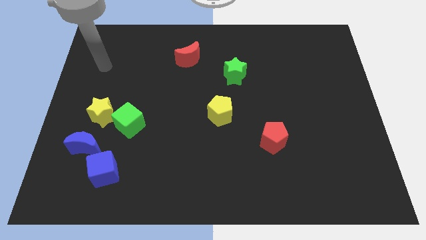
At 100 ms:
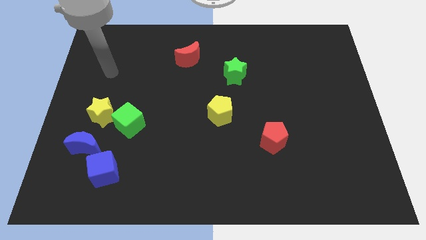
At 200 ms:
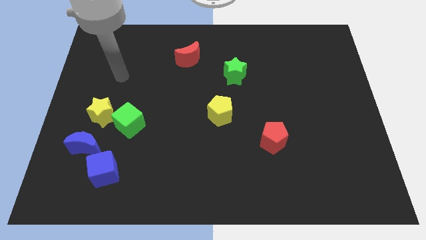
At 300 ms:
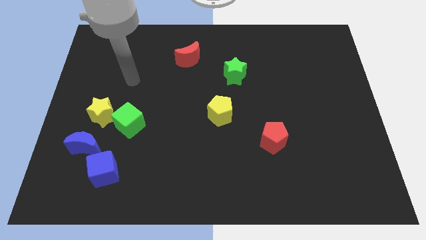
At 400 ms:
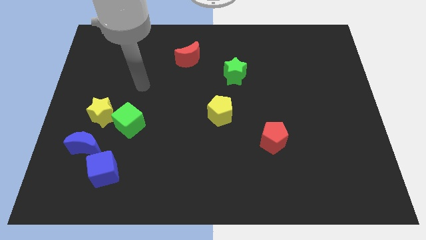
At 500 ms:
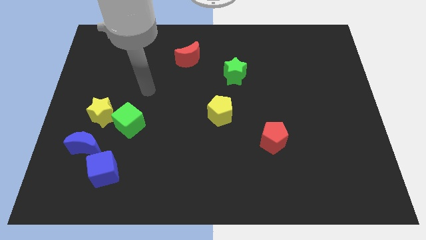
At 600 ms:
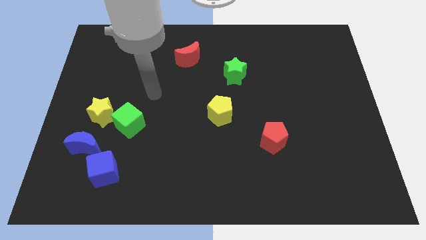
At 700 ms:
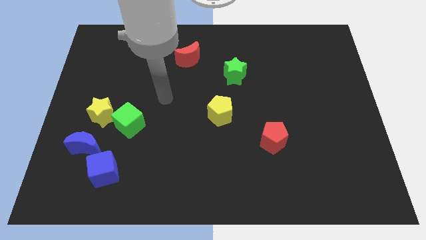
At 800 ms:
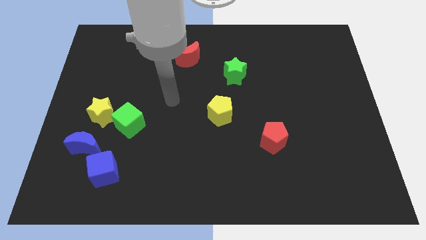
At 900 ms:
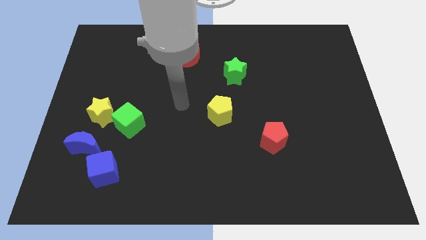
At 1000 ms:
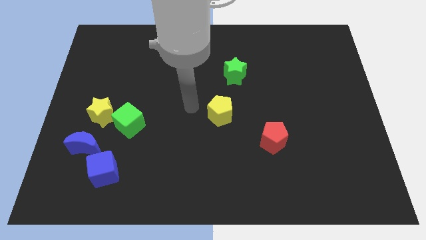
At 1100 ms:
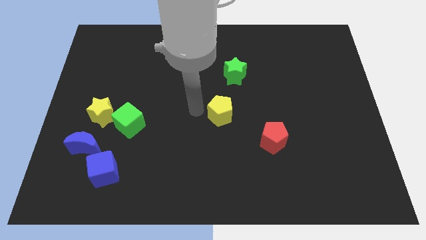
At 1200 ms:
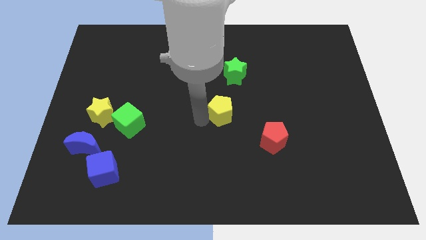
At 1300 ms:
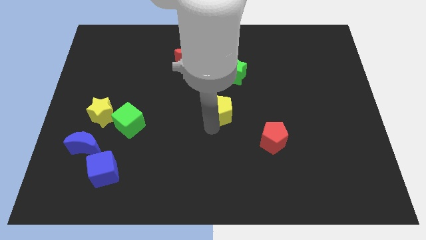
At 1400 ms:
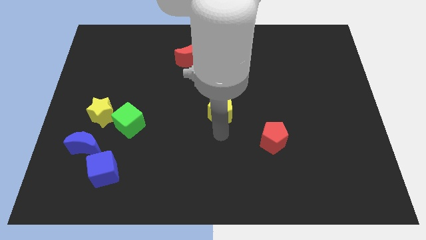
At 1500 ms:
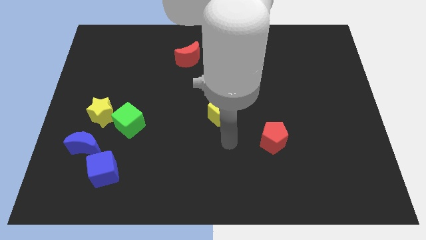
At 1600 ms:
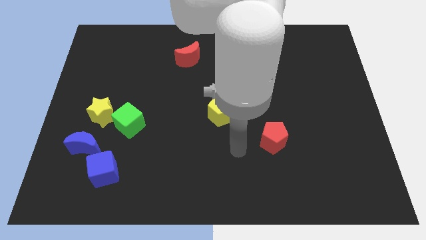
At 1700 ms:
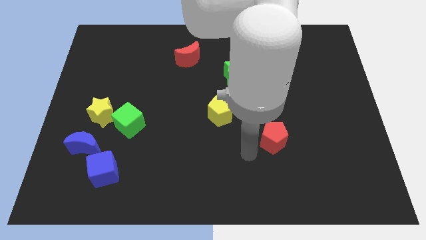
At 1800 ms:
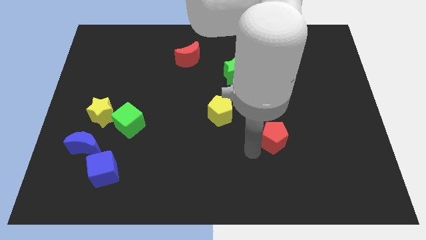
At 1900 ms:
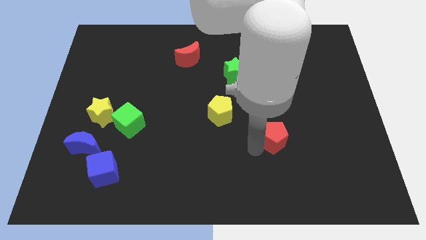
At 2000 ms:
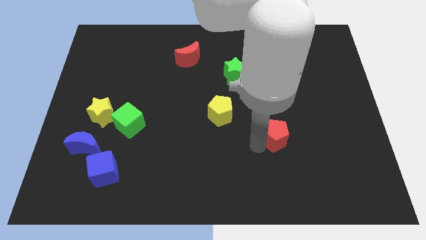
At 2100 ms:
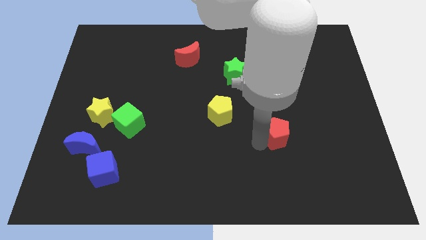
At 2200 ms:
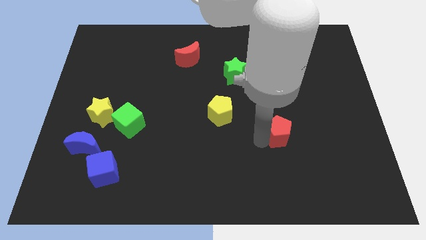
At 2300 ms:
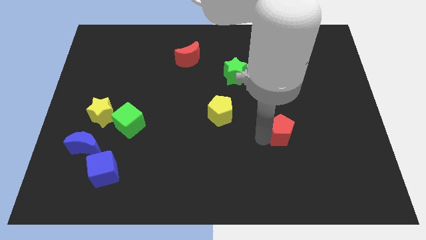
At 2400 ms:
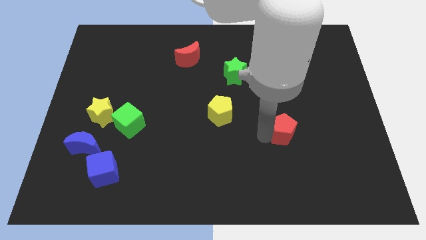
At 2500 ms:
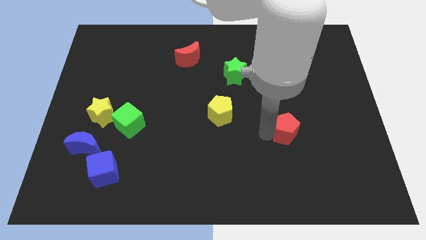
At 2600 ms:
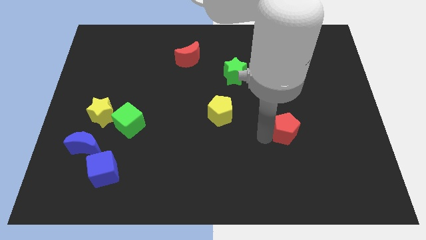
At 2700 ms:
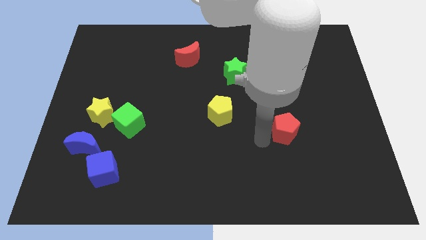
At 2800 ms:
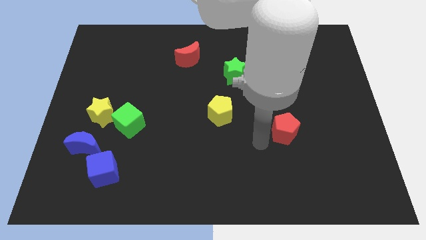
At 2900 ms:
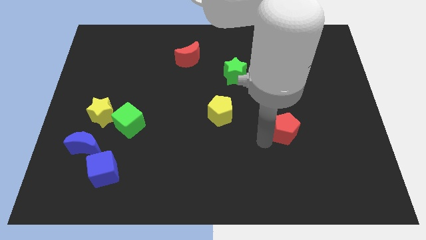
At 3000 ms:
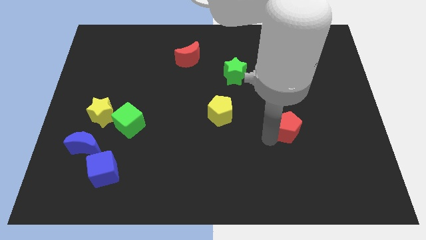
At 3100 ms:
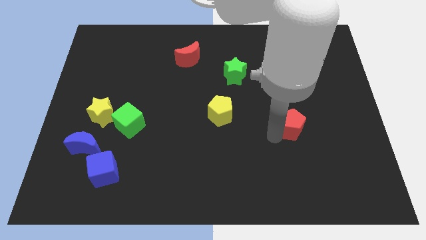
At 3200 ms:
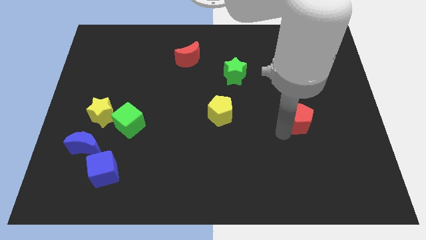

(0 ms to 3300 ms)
slightly slide the red pentagon up and to the right

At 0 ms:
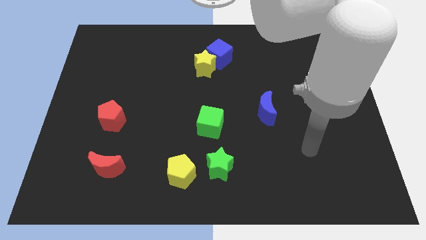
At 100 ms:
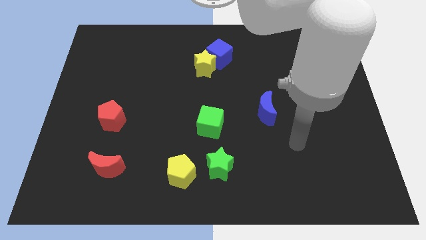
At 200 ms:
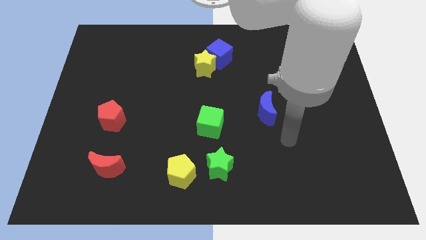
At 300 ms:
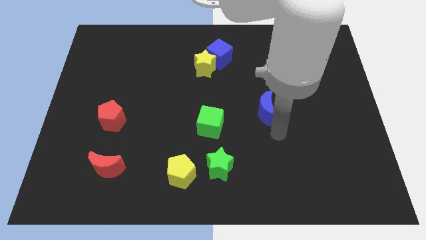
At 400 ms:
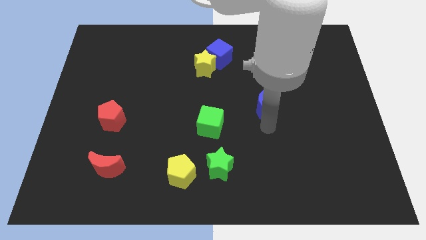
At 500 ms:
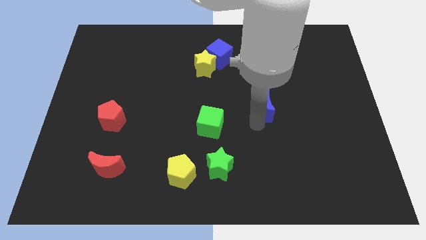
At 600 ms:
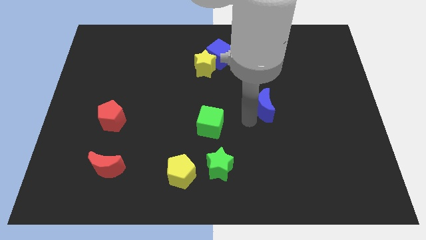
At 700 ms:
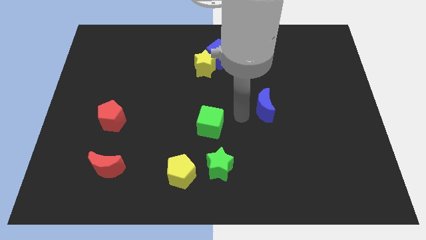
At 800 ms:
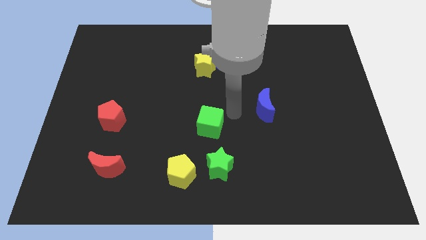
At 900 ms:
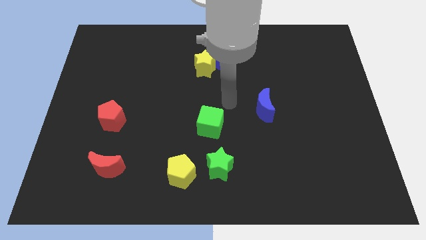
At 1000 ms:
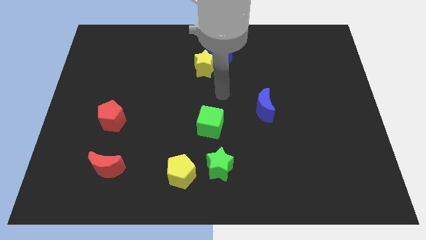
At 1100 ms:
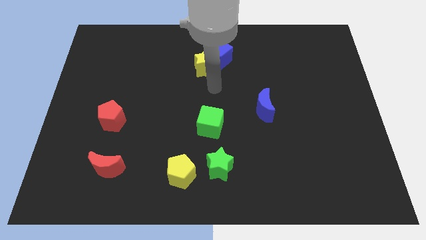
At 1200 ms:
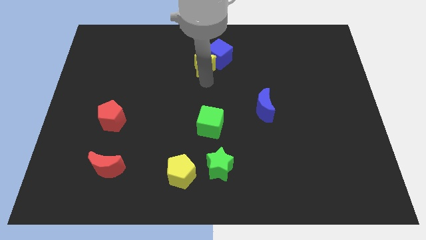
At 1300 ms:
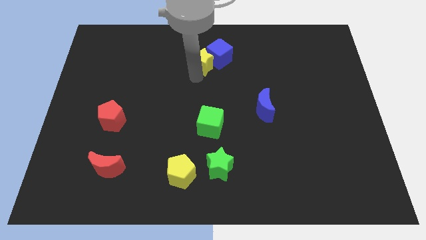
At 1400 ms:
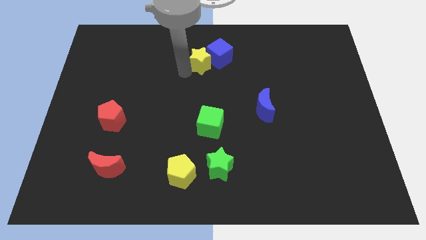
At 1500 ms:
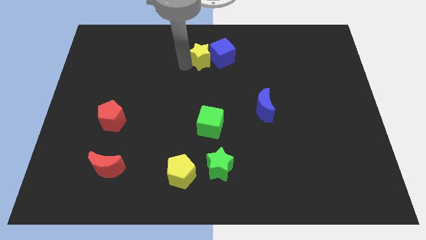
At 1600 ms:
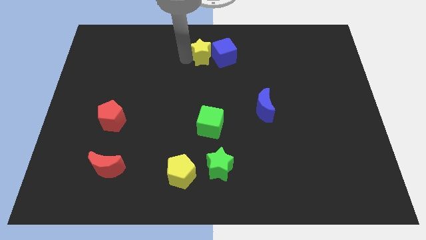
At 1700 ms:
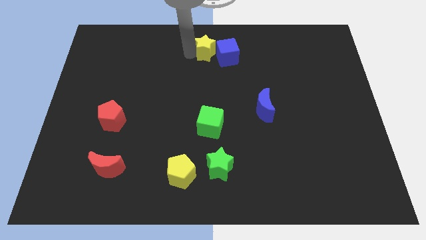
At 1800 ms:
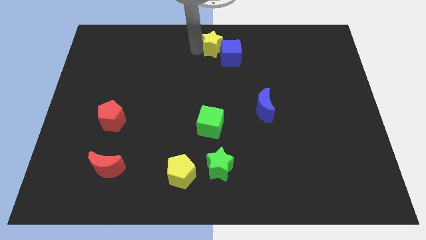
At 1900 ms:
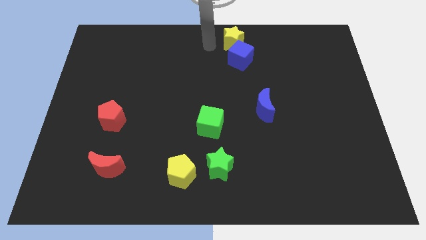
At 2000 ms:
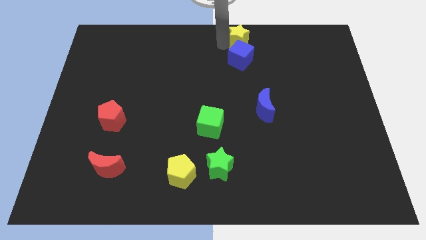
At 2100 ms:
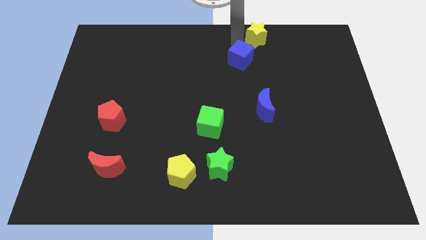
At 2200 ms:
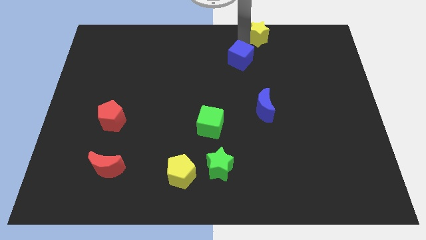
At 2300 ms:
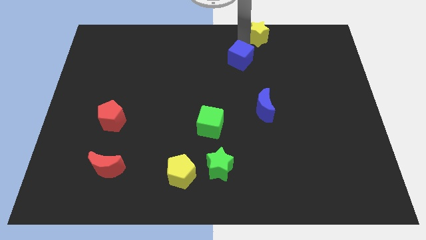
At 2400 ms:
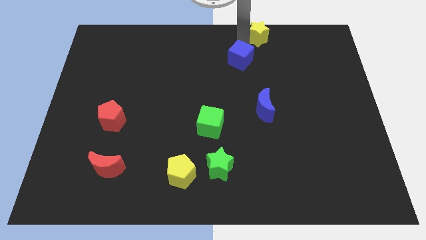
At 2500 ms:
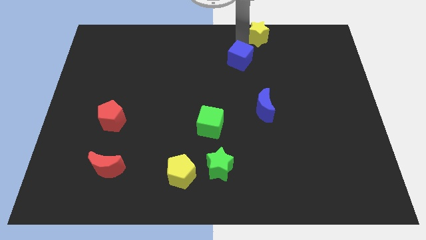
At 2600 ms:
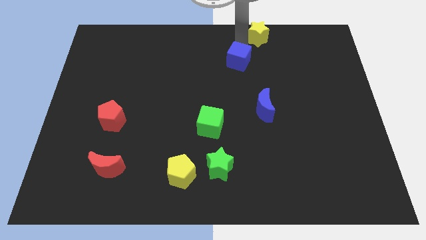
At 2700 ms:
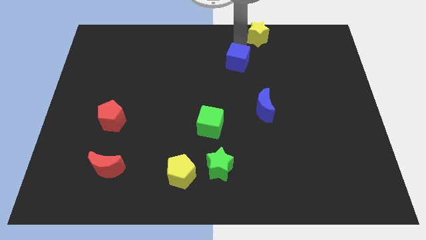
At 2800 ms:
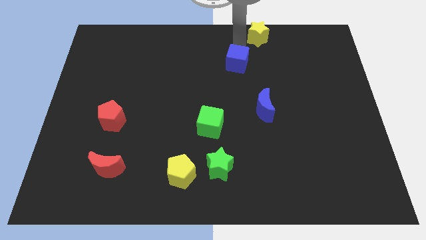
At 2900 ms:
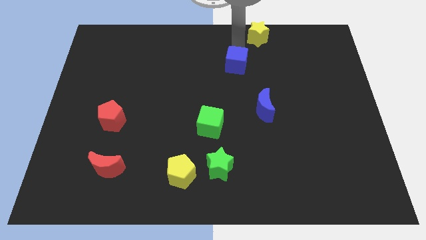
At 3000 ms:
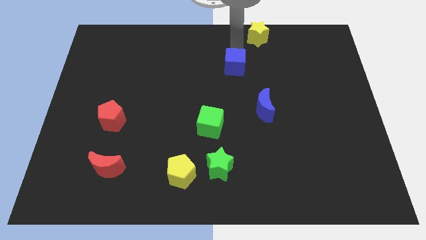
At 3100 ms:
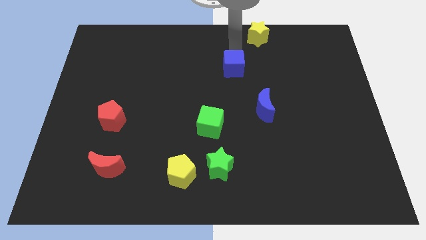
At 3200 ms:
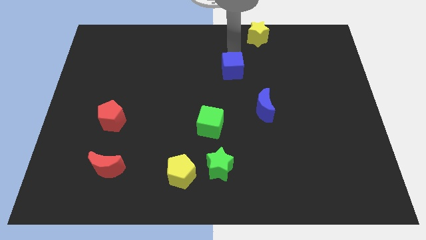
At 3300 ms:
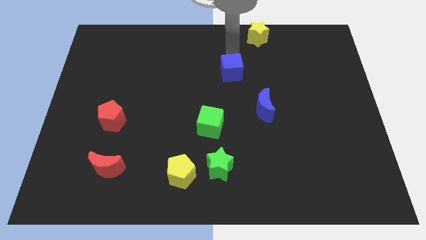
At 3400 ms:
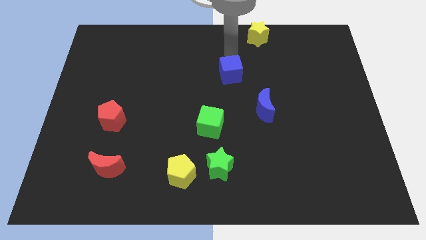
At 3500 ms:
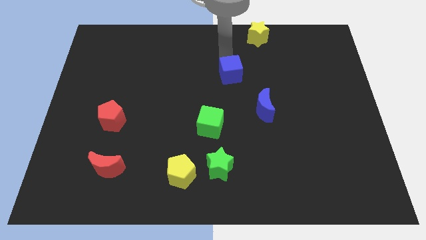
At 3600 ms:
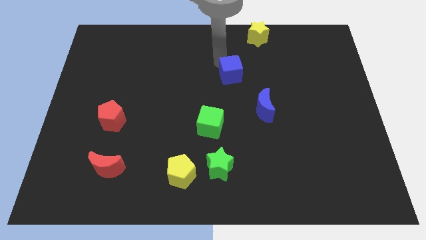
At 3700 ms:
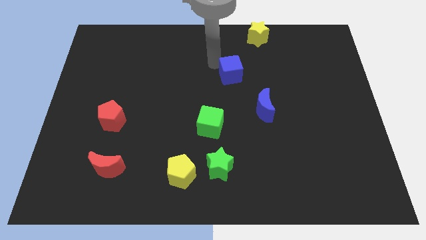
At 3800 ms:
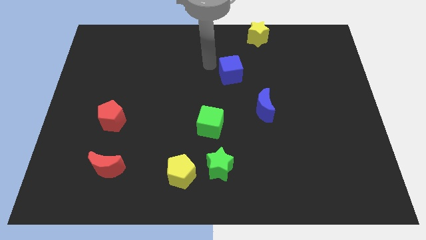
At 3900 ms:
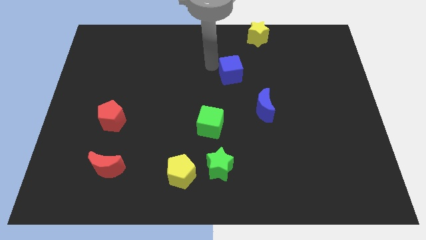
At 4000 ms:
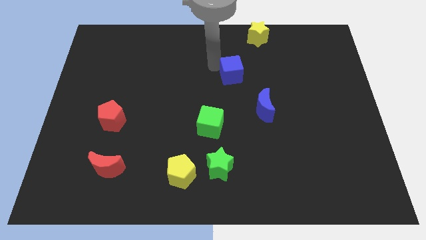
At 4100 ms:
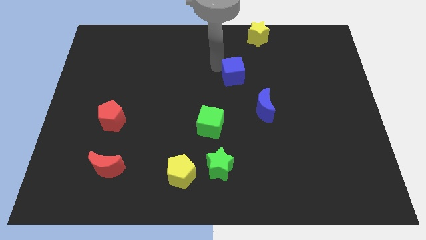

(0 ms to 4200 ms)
slide the blue cube a bit down and to the right diagonally

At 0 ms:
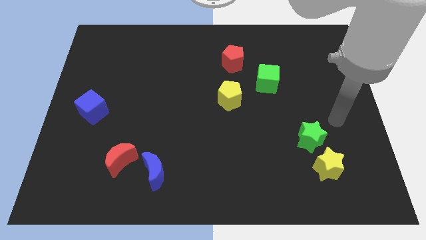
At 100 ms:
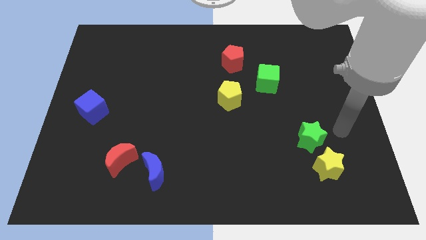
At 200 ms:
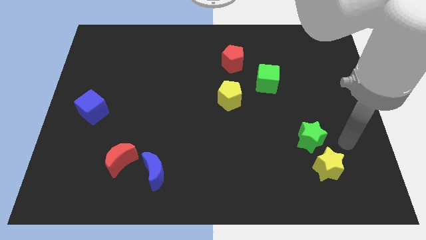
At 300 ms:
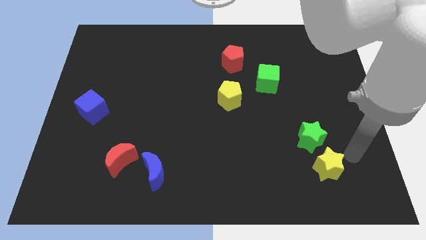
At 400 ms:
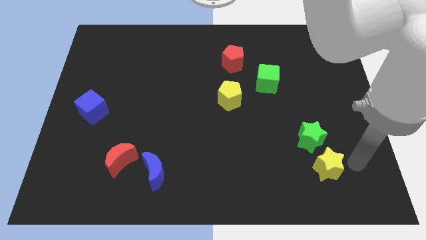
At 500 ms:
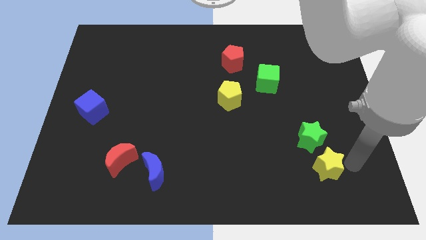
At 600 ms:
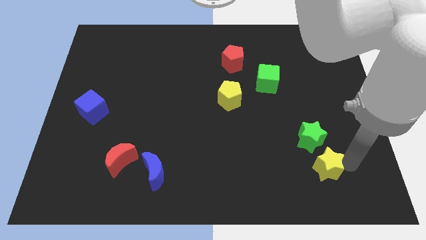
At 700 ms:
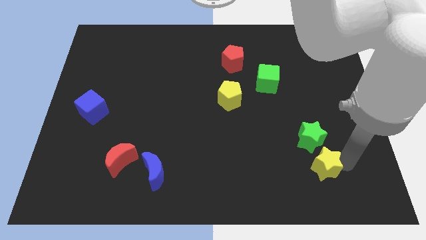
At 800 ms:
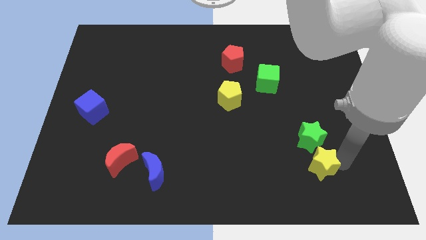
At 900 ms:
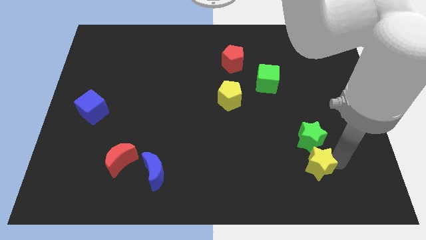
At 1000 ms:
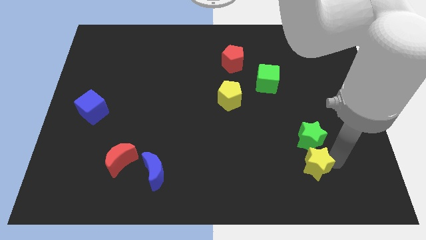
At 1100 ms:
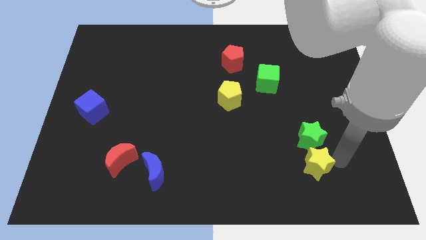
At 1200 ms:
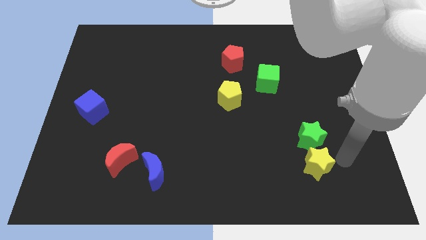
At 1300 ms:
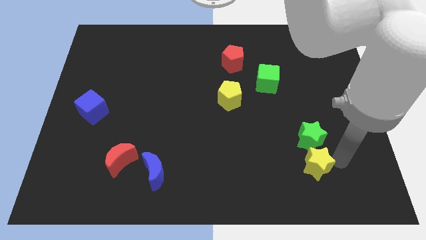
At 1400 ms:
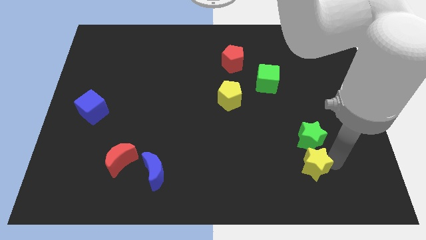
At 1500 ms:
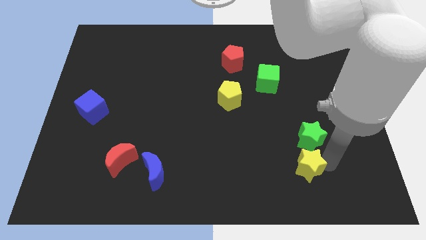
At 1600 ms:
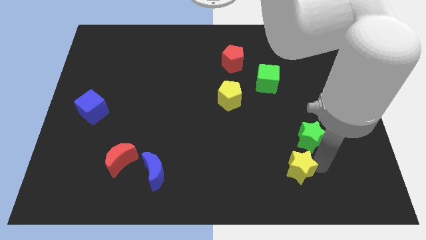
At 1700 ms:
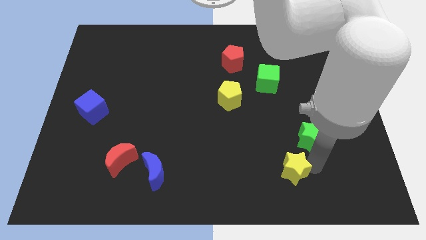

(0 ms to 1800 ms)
slightly push the yellow star left
